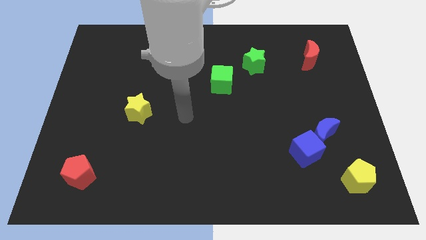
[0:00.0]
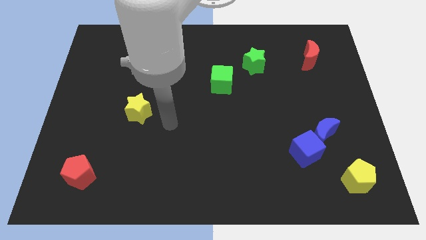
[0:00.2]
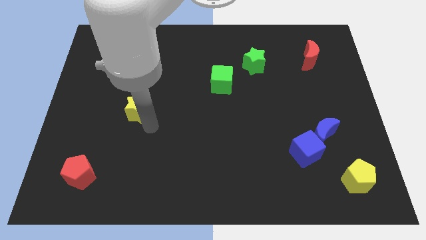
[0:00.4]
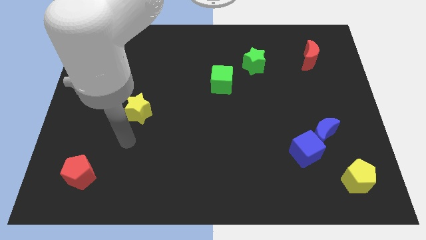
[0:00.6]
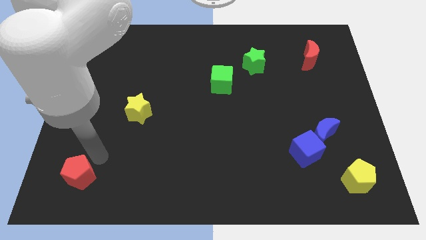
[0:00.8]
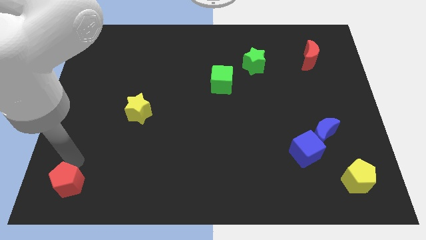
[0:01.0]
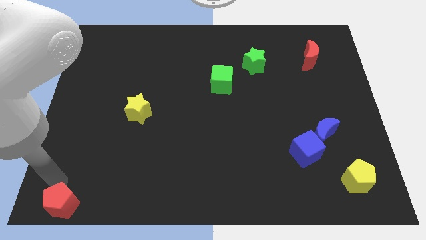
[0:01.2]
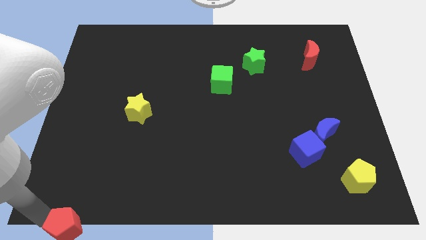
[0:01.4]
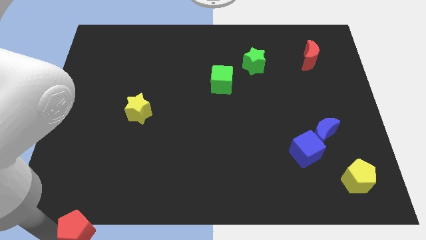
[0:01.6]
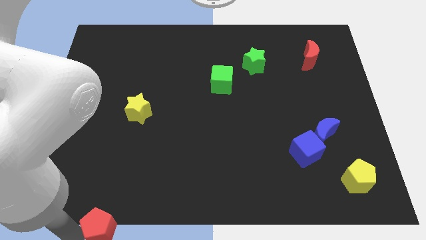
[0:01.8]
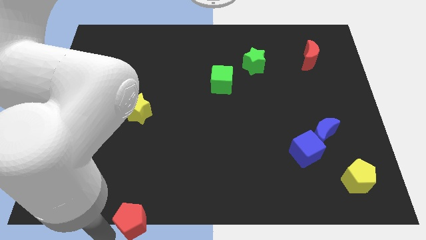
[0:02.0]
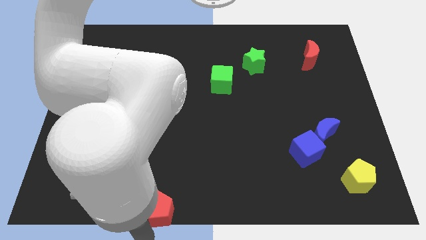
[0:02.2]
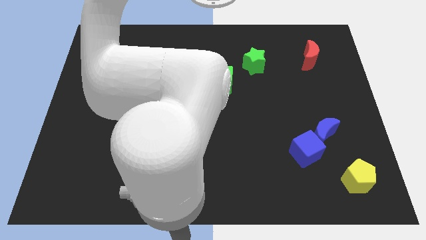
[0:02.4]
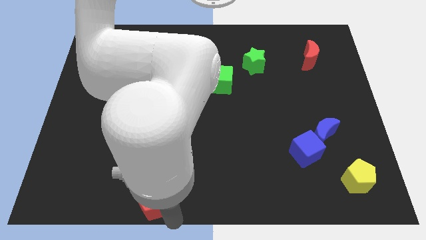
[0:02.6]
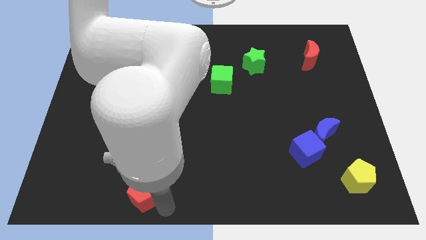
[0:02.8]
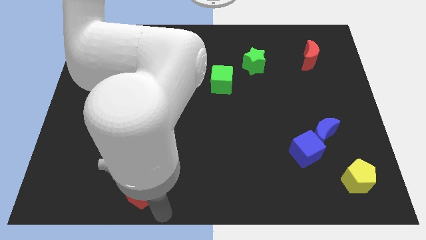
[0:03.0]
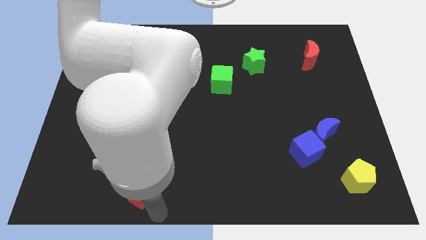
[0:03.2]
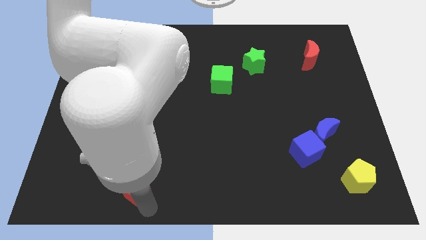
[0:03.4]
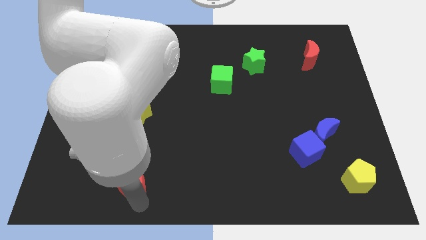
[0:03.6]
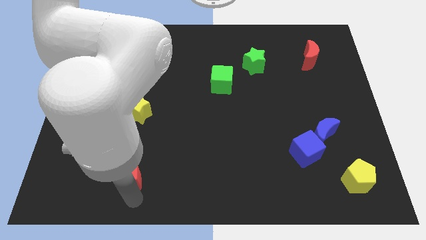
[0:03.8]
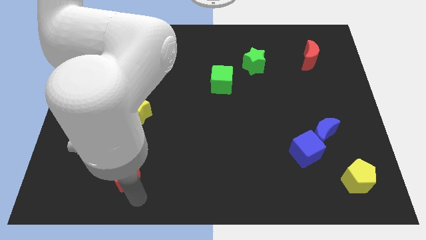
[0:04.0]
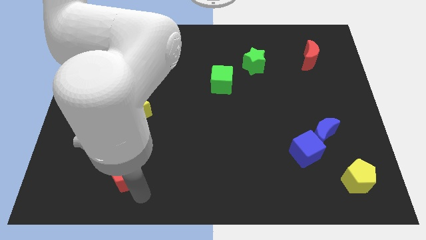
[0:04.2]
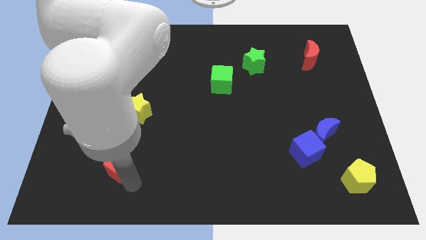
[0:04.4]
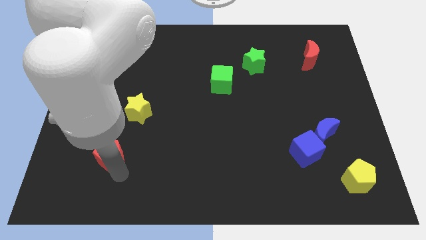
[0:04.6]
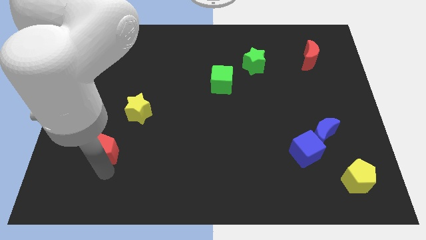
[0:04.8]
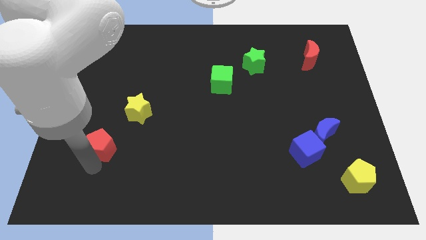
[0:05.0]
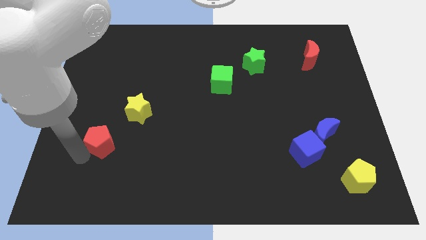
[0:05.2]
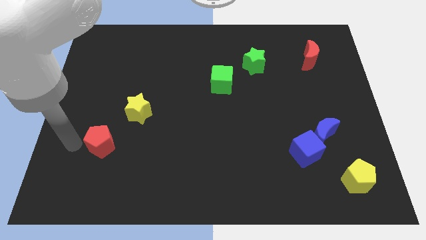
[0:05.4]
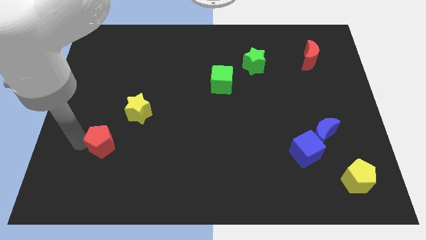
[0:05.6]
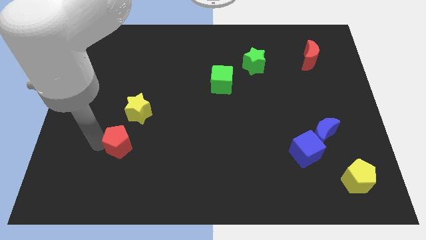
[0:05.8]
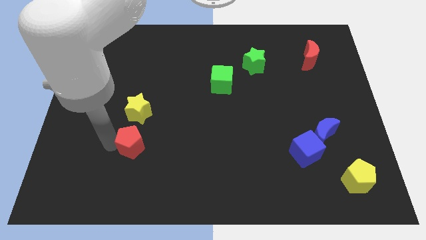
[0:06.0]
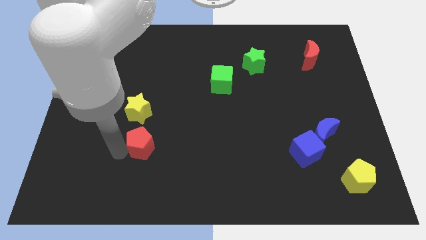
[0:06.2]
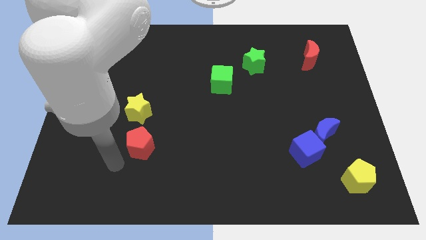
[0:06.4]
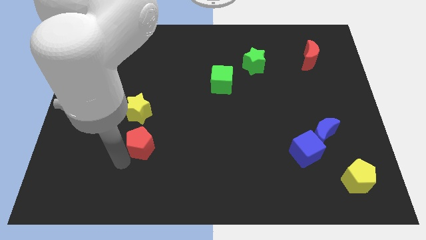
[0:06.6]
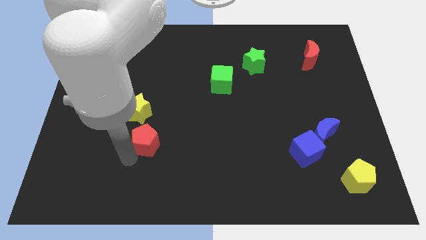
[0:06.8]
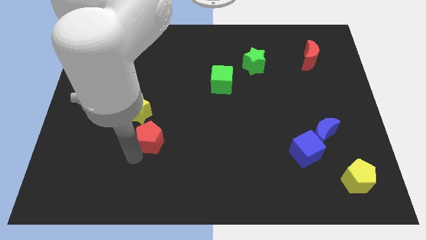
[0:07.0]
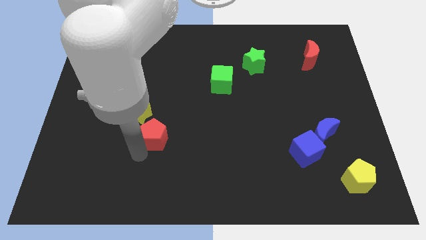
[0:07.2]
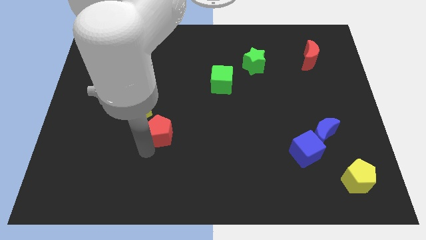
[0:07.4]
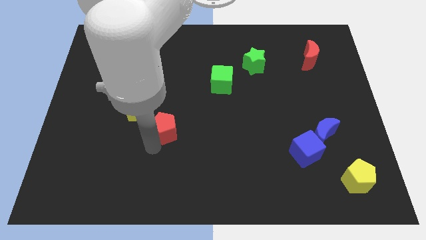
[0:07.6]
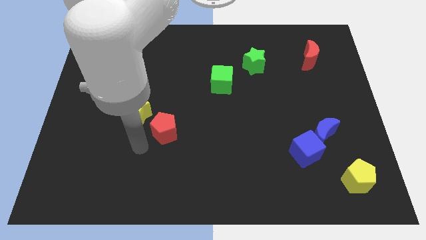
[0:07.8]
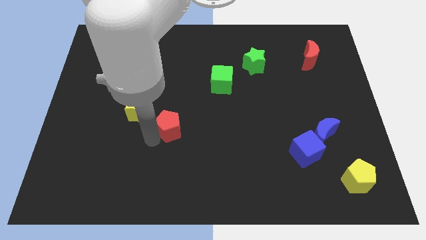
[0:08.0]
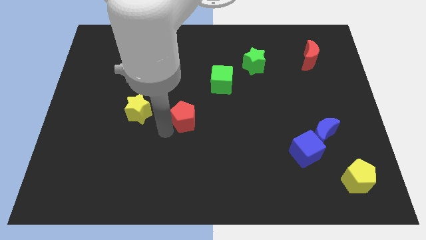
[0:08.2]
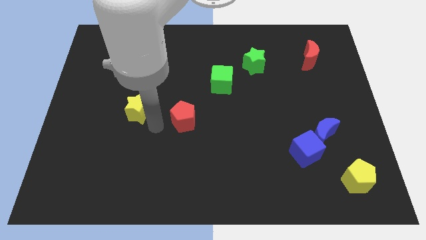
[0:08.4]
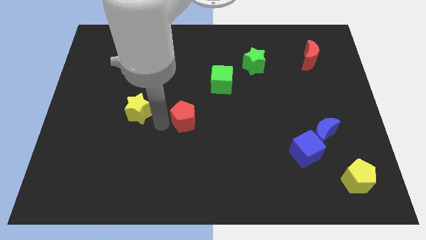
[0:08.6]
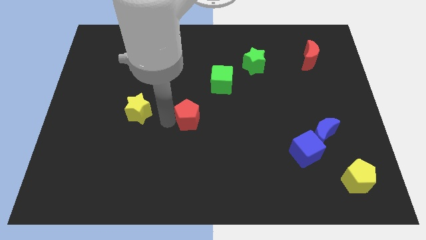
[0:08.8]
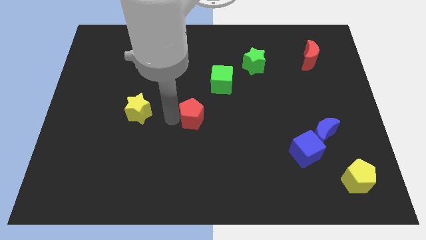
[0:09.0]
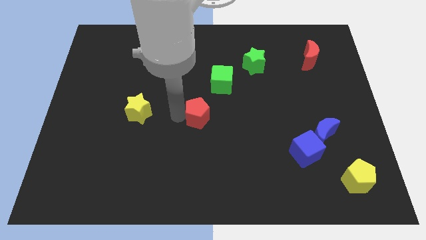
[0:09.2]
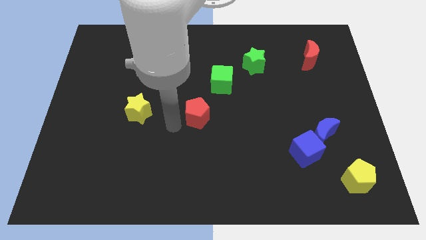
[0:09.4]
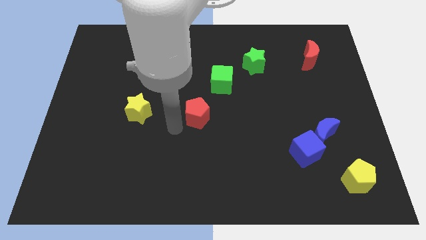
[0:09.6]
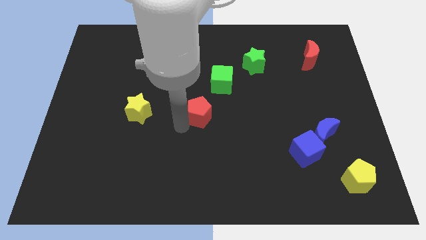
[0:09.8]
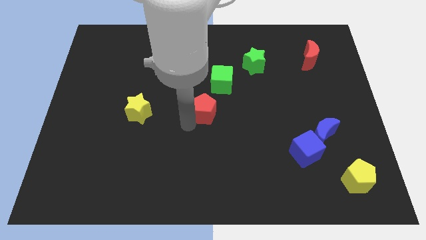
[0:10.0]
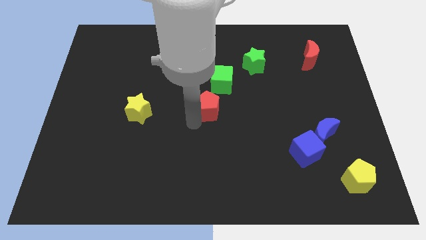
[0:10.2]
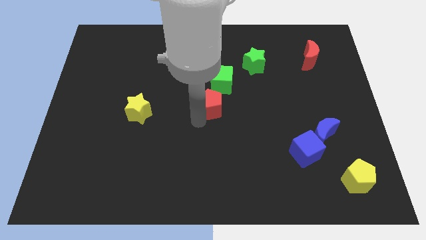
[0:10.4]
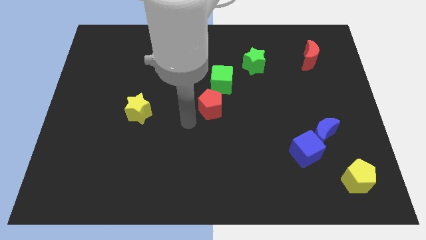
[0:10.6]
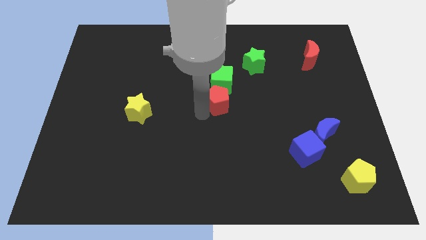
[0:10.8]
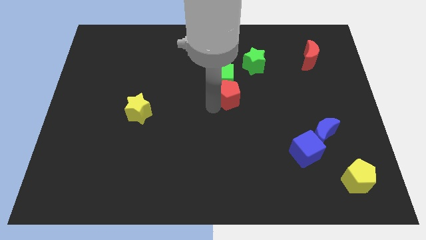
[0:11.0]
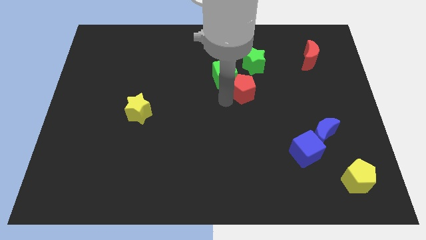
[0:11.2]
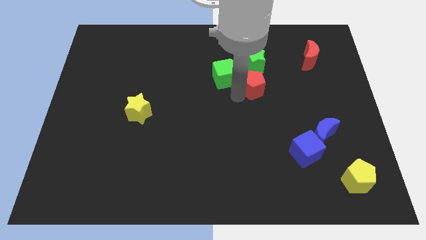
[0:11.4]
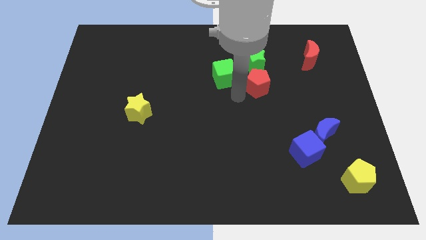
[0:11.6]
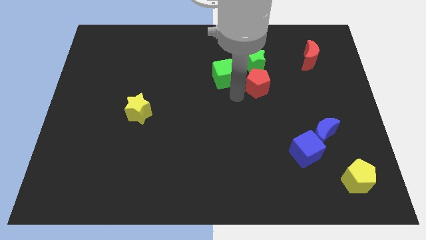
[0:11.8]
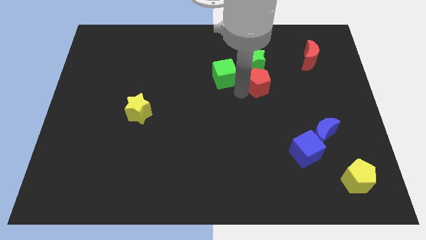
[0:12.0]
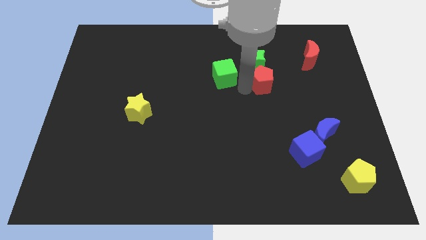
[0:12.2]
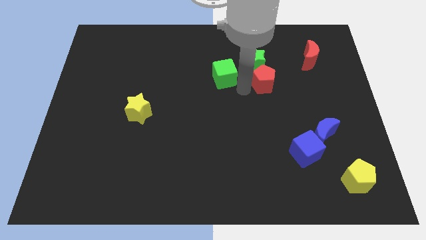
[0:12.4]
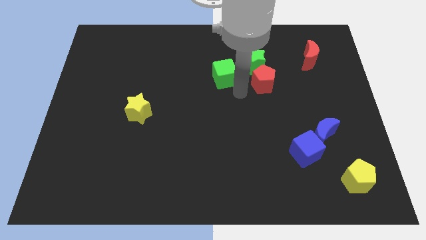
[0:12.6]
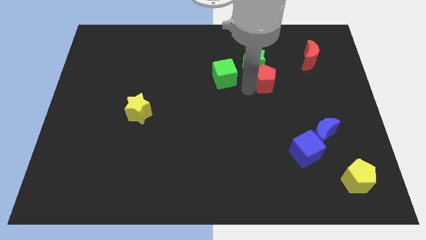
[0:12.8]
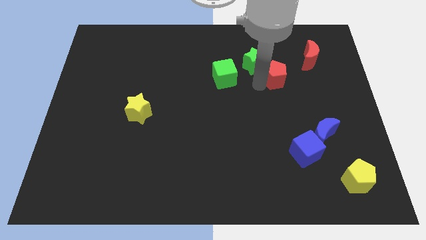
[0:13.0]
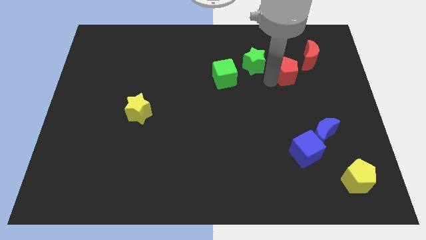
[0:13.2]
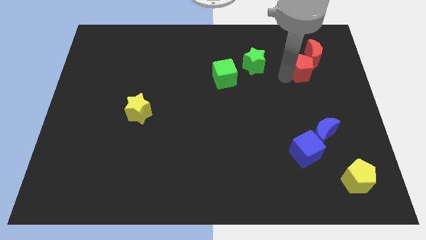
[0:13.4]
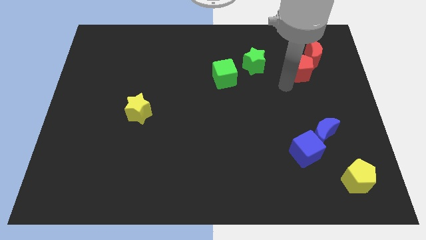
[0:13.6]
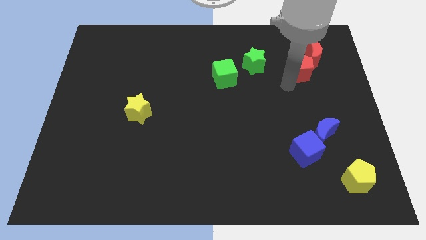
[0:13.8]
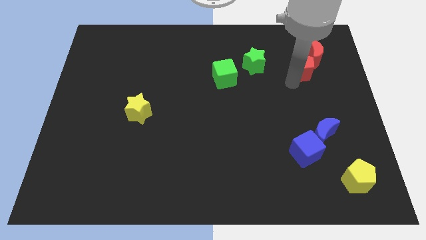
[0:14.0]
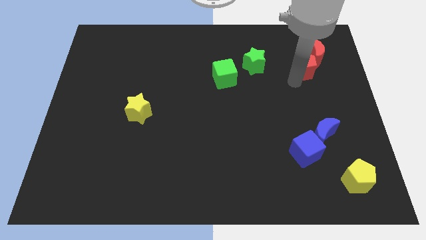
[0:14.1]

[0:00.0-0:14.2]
put the red pentagon next to the red moon
